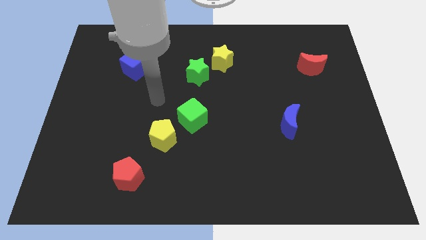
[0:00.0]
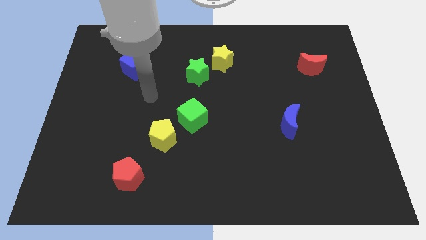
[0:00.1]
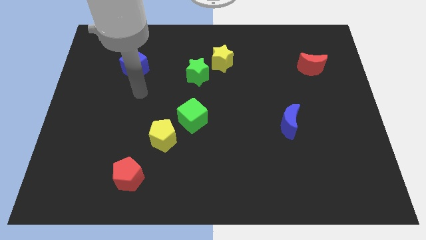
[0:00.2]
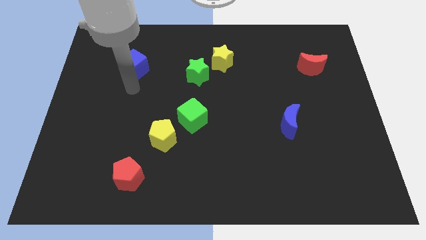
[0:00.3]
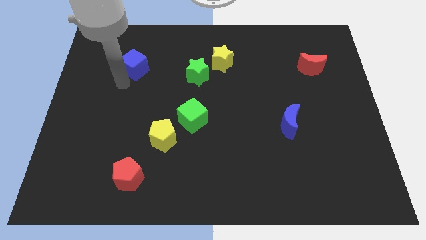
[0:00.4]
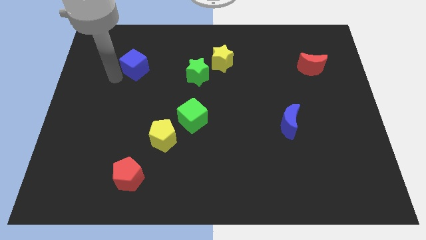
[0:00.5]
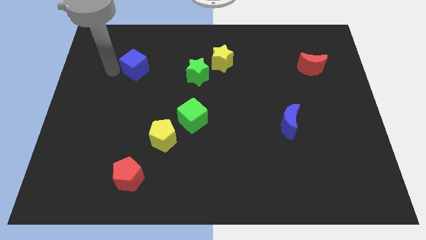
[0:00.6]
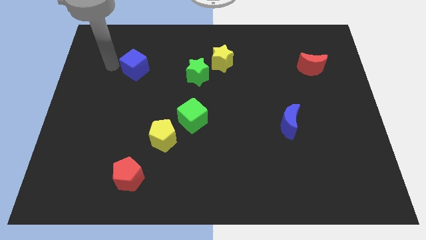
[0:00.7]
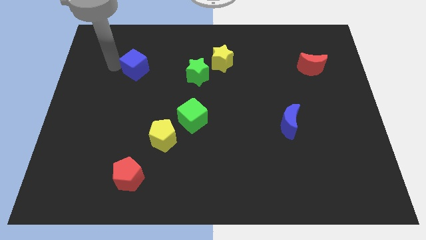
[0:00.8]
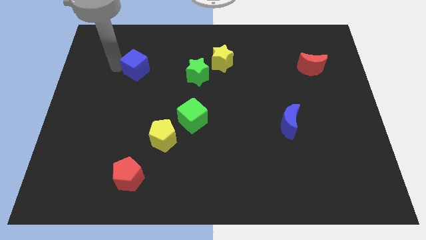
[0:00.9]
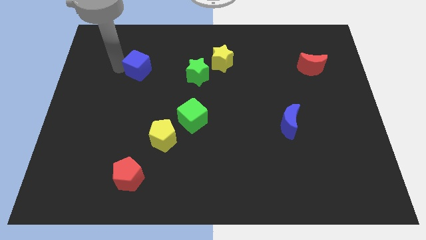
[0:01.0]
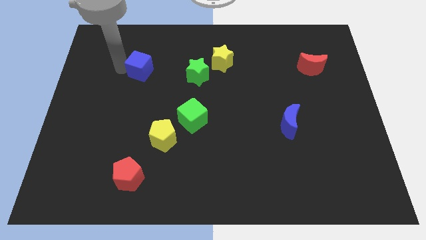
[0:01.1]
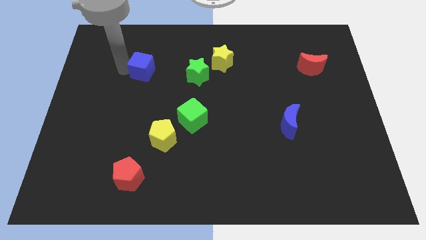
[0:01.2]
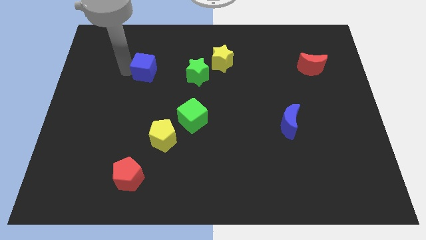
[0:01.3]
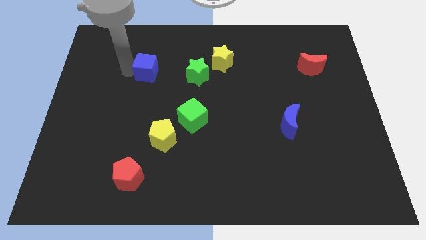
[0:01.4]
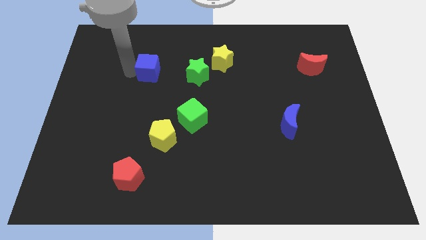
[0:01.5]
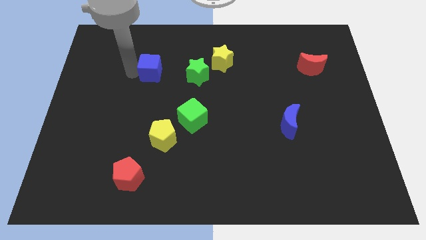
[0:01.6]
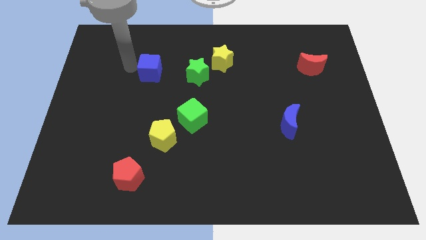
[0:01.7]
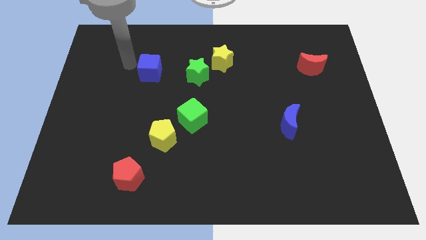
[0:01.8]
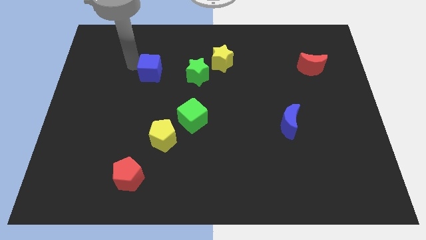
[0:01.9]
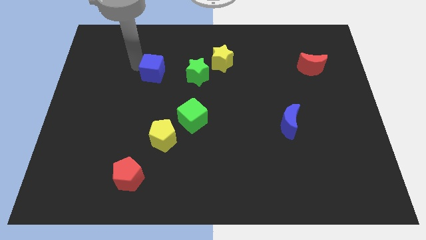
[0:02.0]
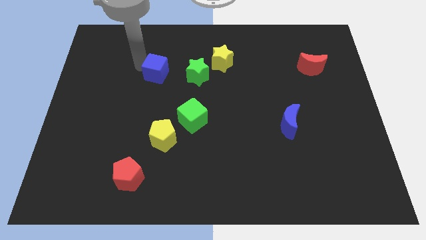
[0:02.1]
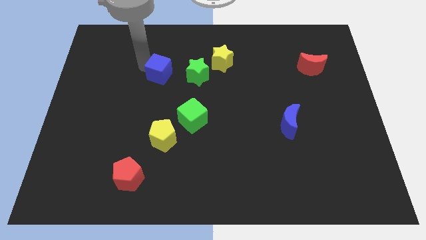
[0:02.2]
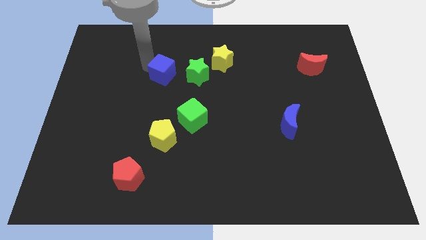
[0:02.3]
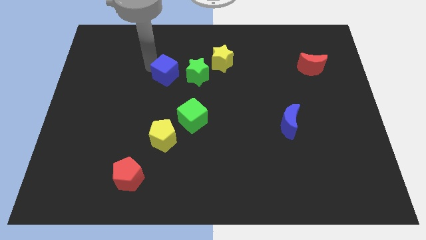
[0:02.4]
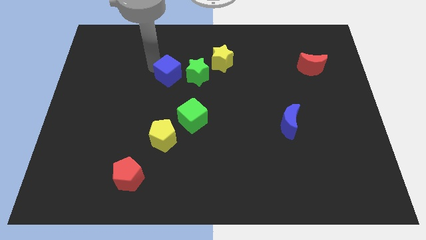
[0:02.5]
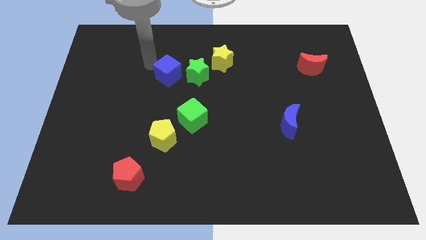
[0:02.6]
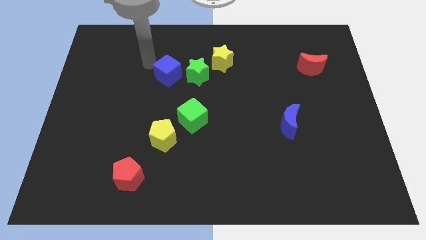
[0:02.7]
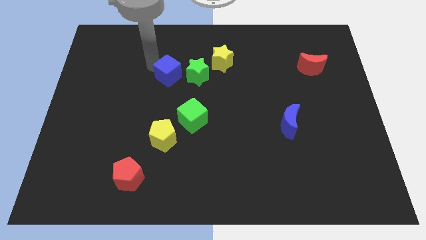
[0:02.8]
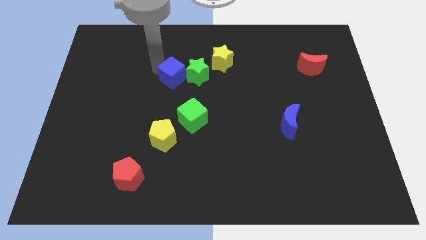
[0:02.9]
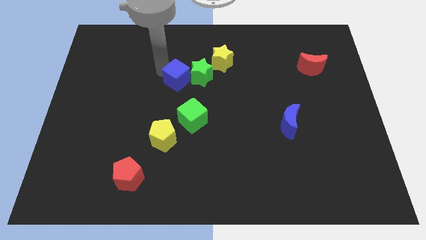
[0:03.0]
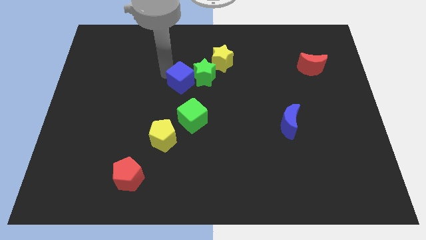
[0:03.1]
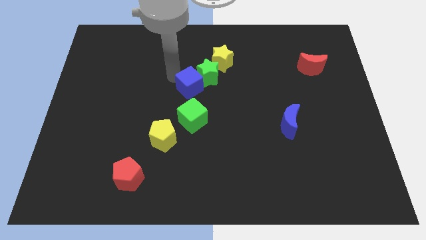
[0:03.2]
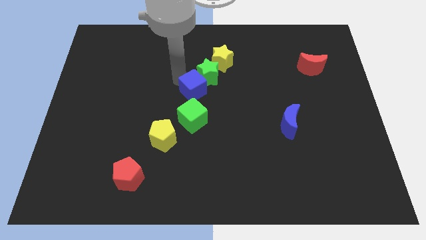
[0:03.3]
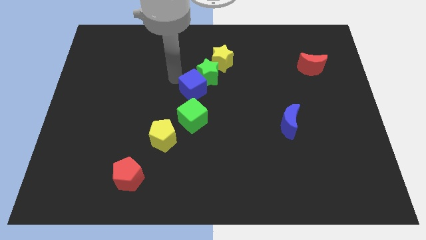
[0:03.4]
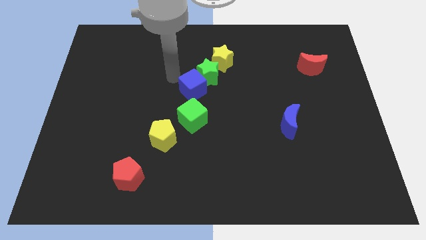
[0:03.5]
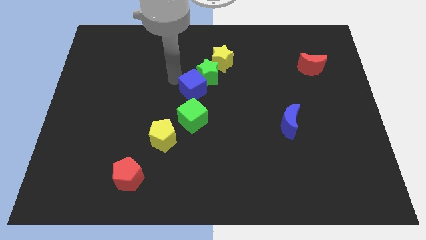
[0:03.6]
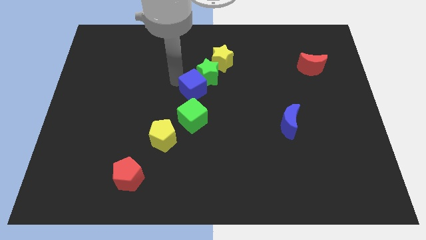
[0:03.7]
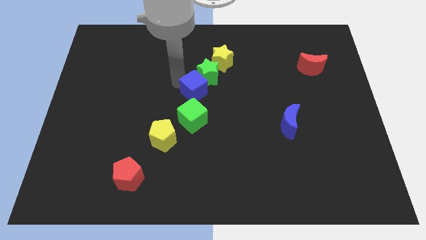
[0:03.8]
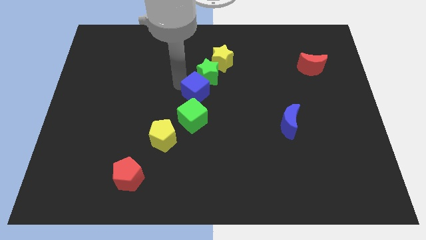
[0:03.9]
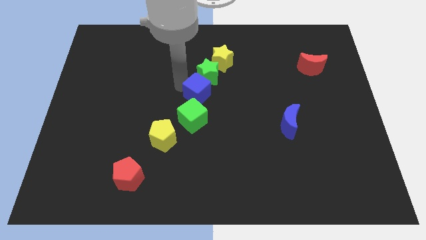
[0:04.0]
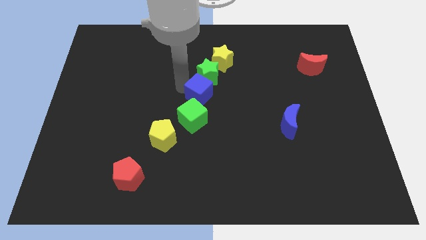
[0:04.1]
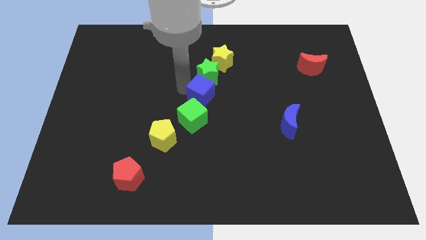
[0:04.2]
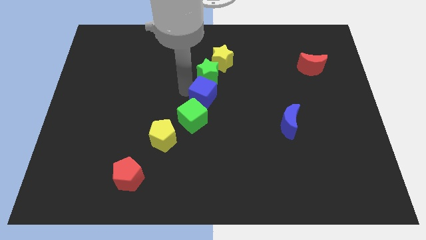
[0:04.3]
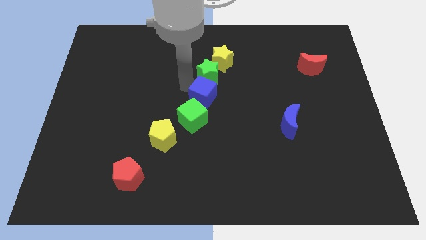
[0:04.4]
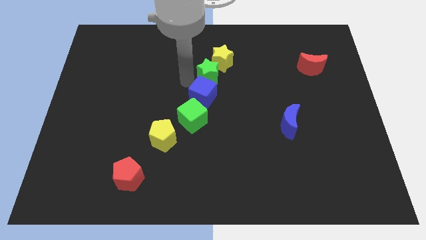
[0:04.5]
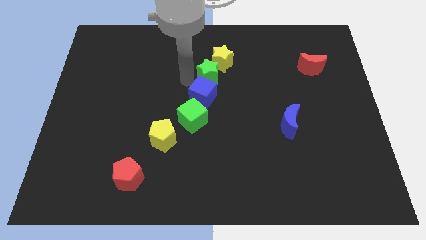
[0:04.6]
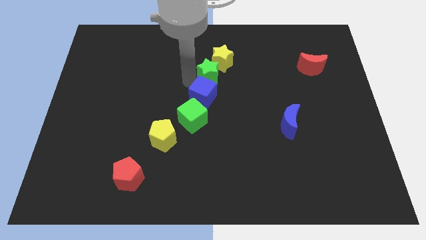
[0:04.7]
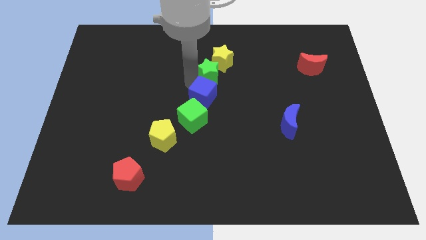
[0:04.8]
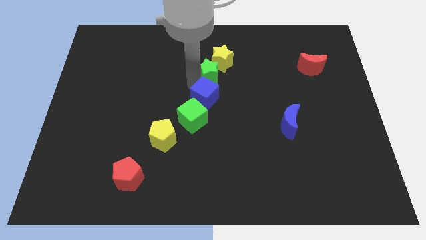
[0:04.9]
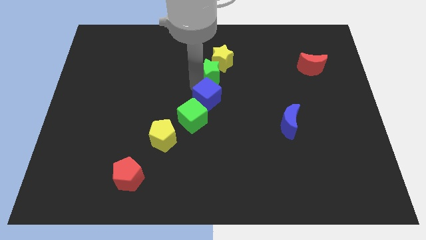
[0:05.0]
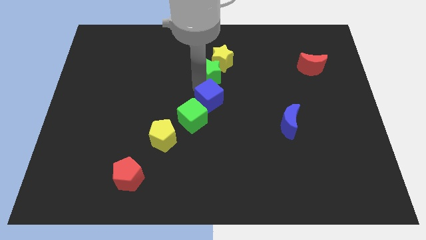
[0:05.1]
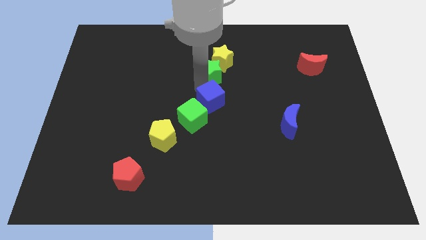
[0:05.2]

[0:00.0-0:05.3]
move the blue cube diagonally downwards and to the right

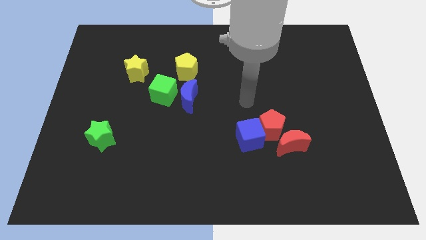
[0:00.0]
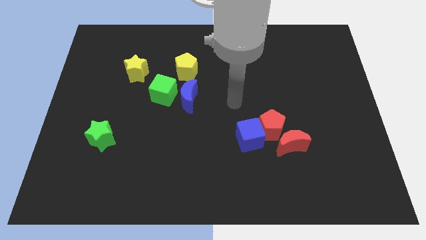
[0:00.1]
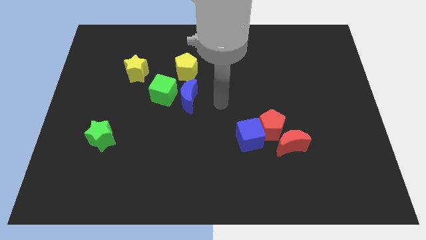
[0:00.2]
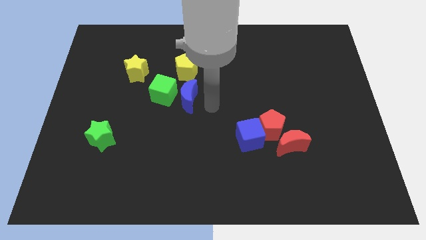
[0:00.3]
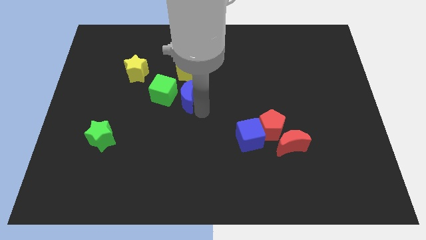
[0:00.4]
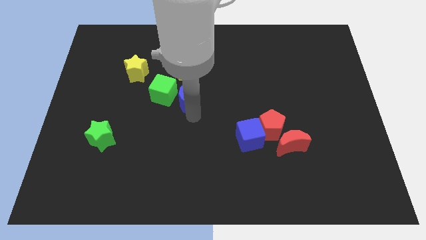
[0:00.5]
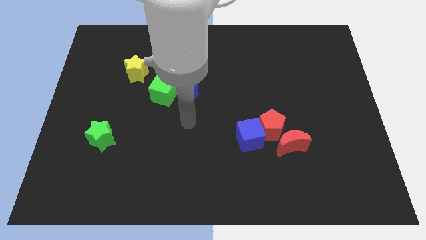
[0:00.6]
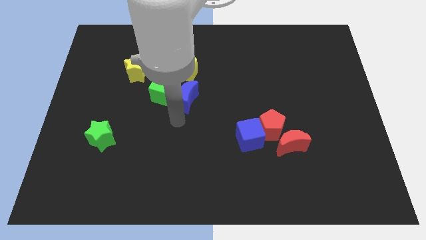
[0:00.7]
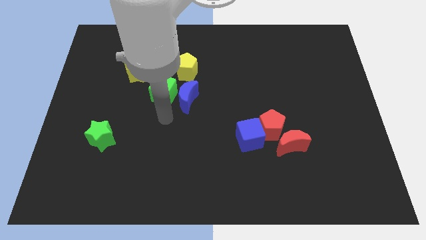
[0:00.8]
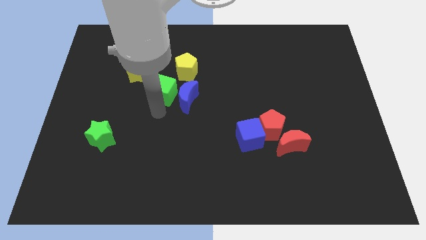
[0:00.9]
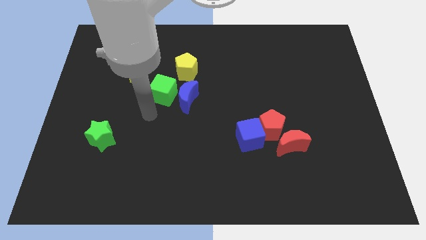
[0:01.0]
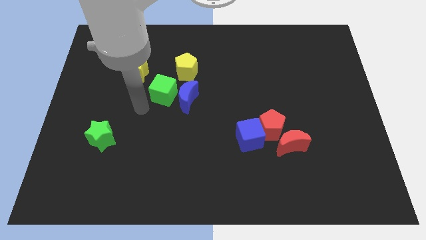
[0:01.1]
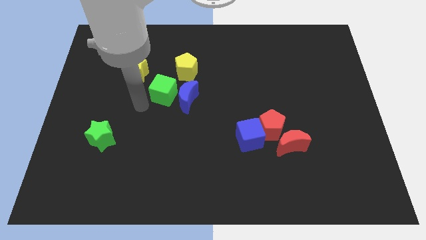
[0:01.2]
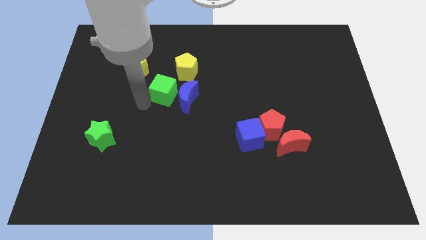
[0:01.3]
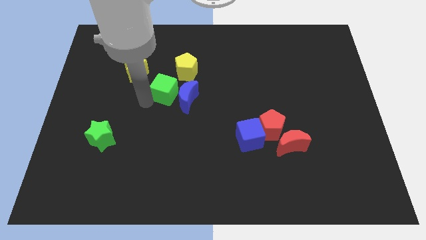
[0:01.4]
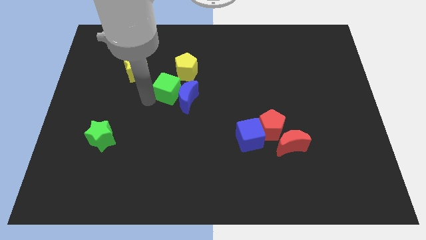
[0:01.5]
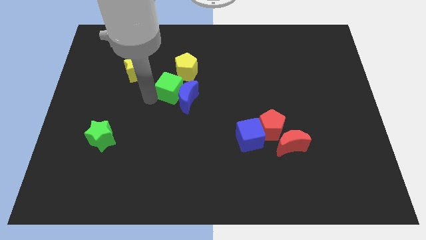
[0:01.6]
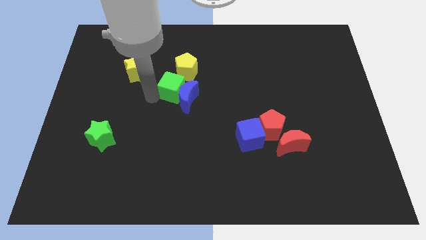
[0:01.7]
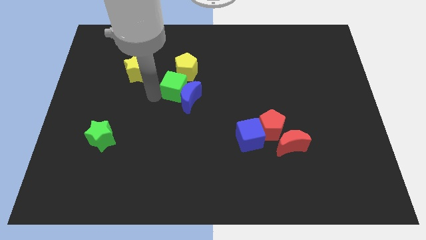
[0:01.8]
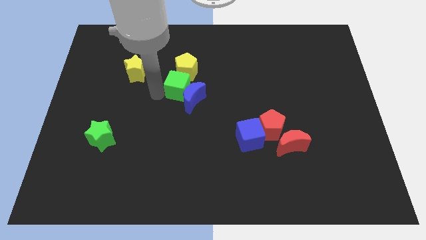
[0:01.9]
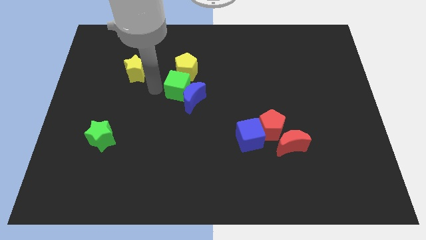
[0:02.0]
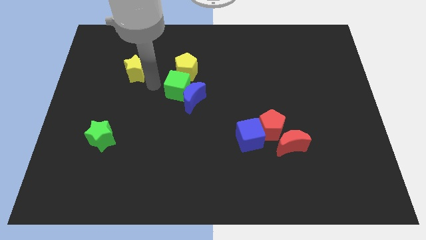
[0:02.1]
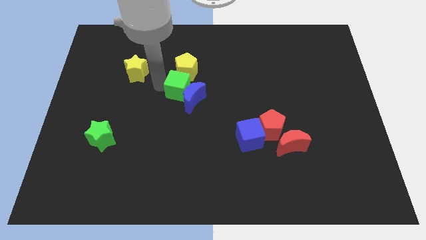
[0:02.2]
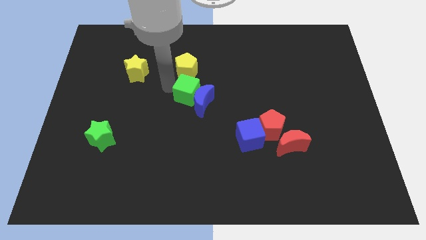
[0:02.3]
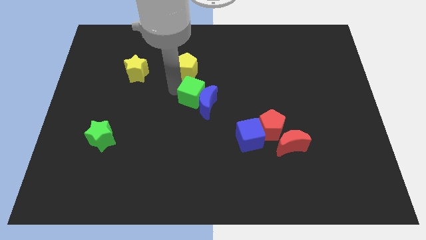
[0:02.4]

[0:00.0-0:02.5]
slide the green cube a little bit right

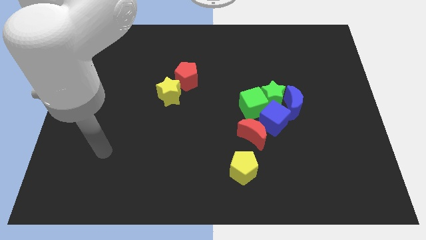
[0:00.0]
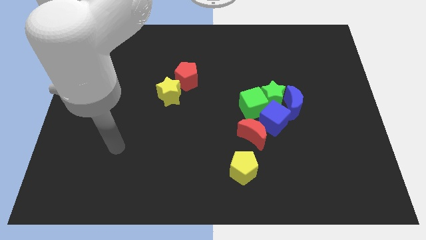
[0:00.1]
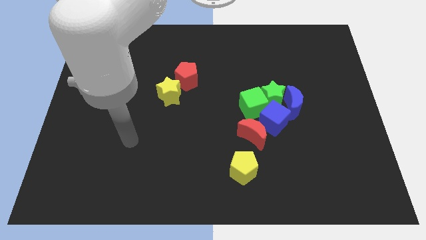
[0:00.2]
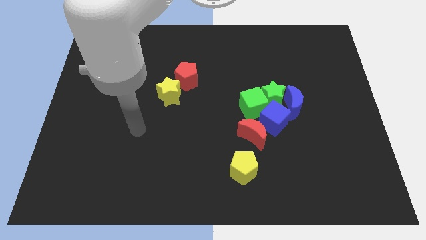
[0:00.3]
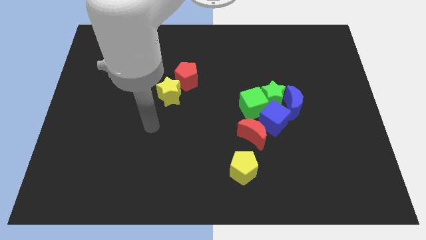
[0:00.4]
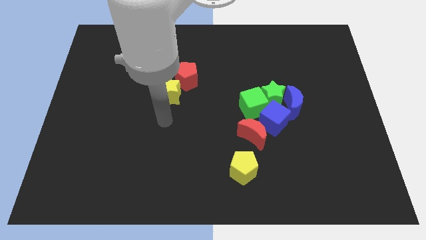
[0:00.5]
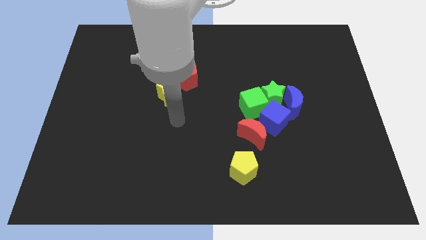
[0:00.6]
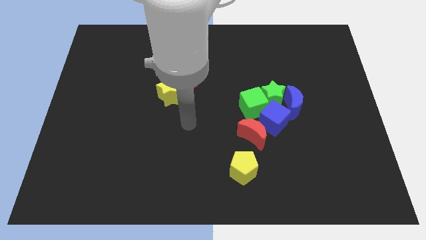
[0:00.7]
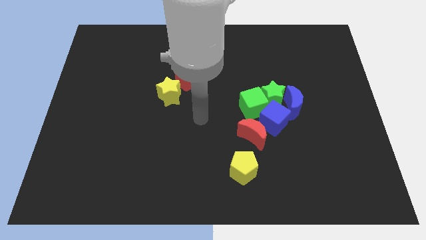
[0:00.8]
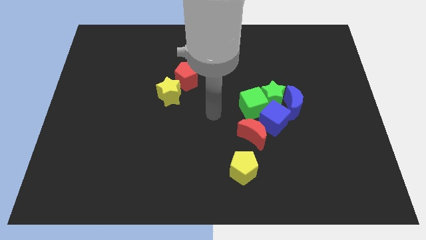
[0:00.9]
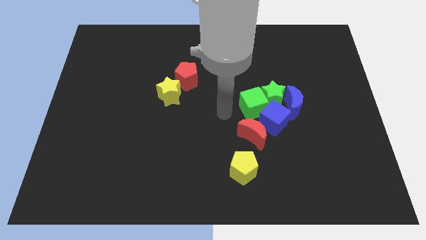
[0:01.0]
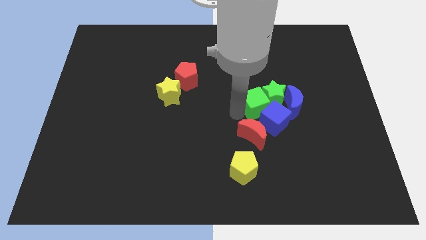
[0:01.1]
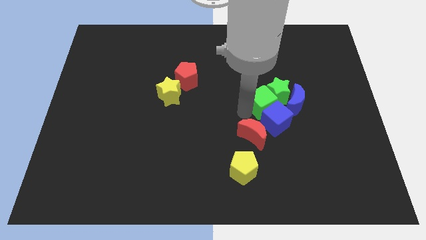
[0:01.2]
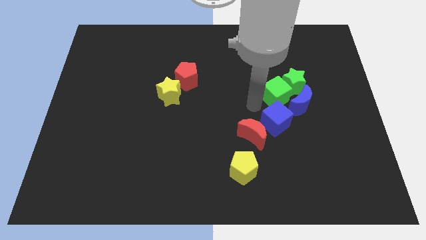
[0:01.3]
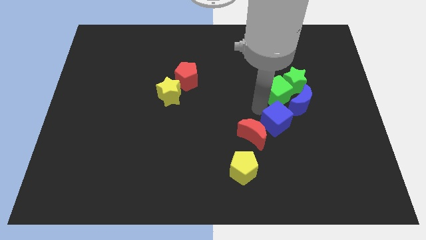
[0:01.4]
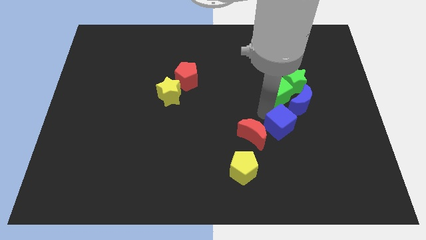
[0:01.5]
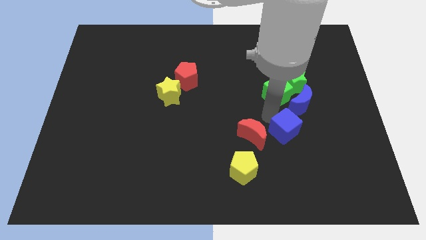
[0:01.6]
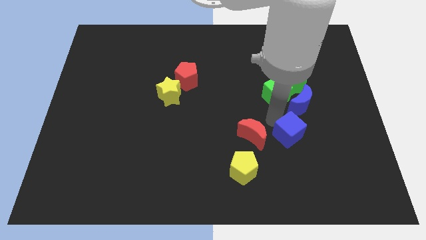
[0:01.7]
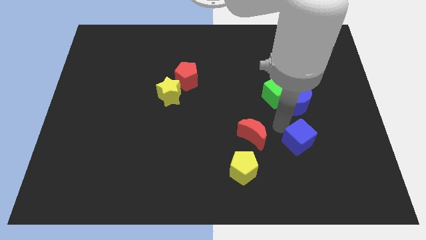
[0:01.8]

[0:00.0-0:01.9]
push the blue cube somewhat downwards and then to the right
